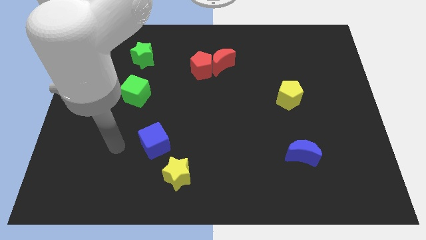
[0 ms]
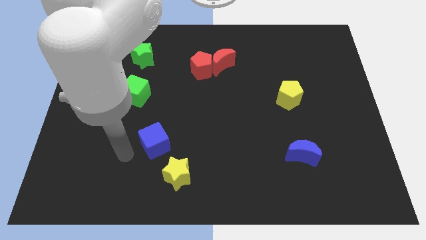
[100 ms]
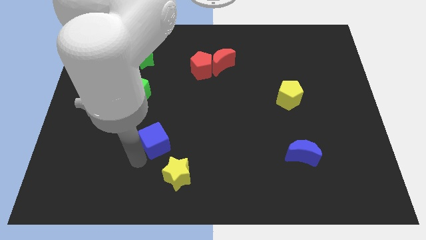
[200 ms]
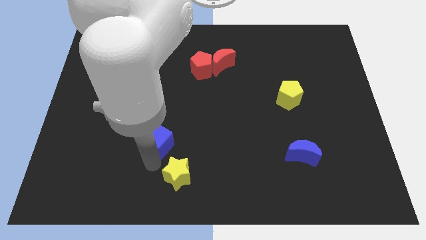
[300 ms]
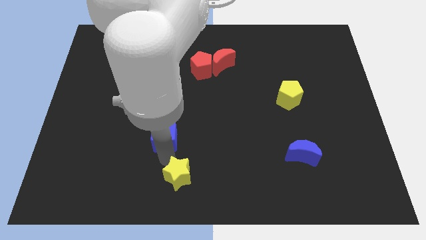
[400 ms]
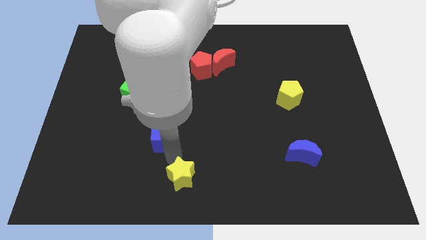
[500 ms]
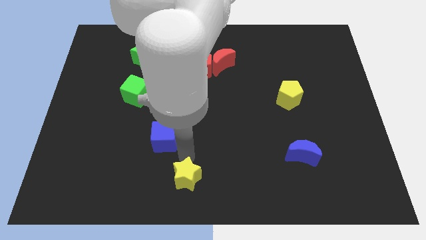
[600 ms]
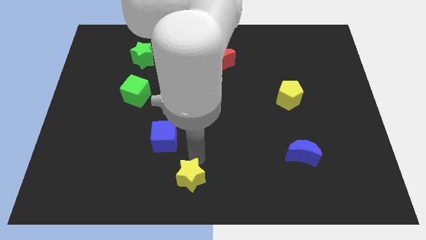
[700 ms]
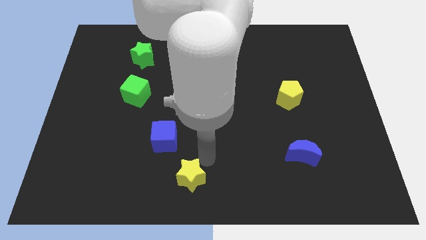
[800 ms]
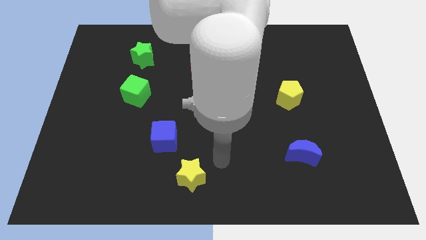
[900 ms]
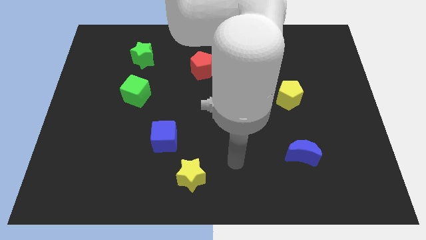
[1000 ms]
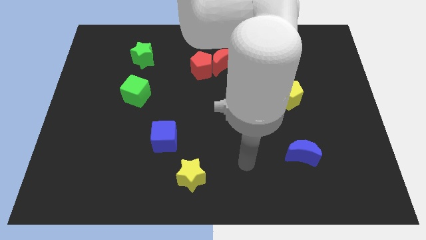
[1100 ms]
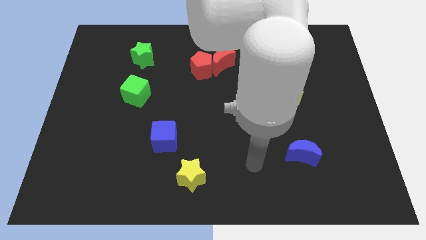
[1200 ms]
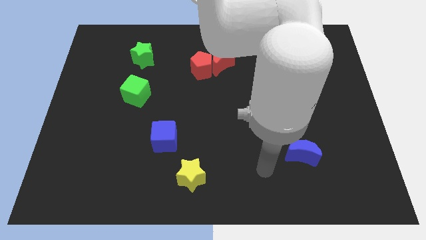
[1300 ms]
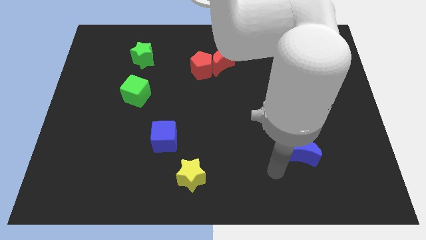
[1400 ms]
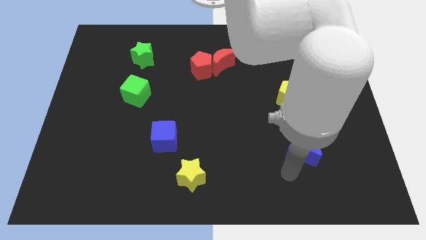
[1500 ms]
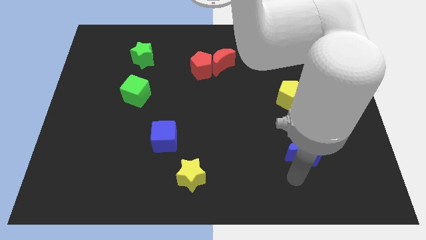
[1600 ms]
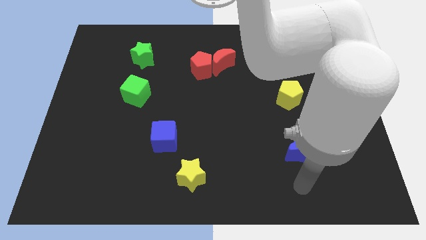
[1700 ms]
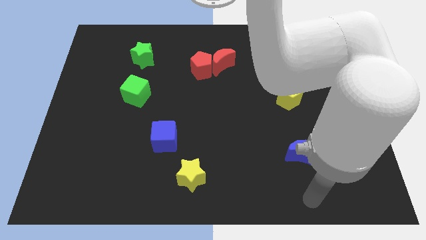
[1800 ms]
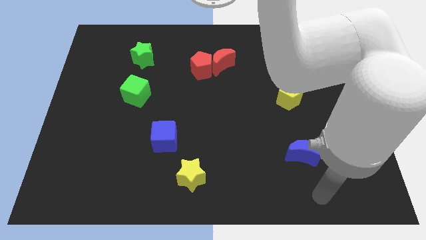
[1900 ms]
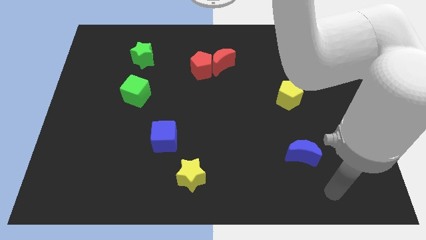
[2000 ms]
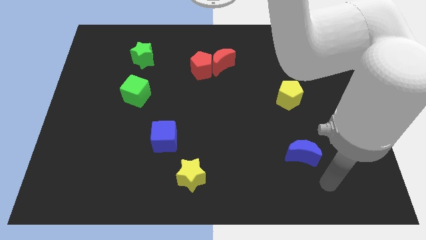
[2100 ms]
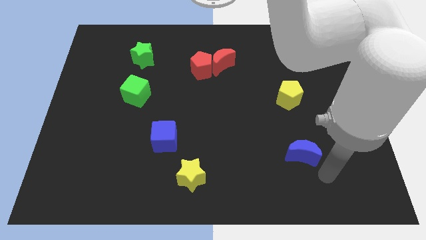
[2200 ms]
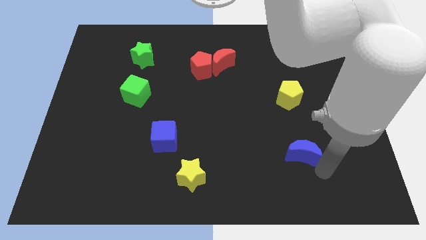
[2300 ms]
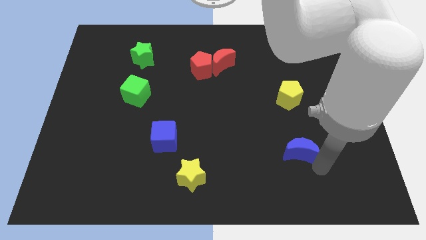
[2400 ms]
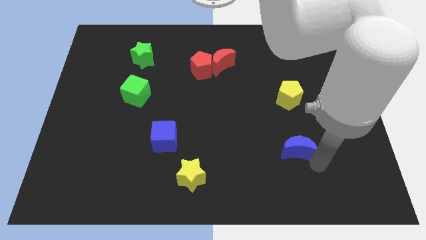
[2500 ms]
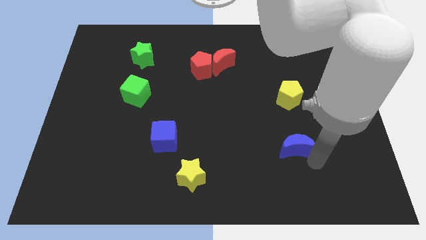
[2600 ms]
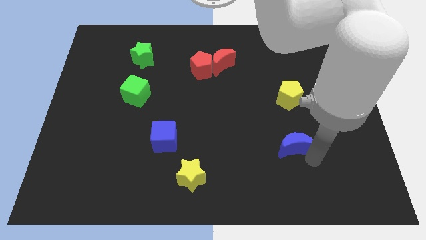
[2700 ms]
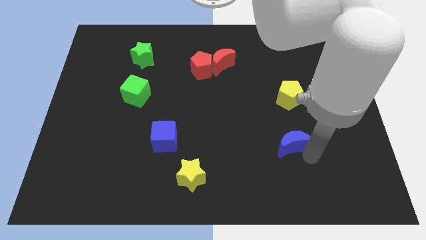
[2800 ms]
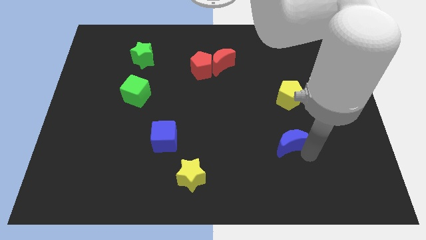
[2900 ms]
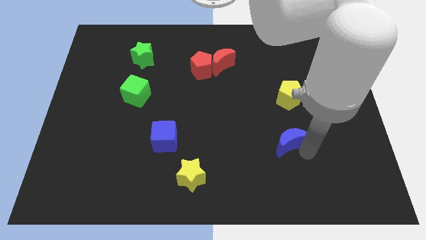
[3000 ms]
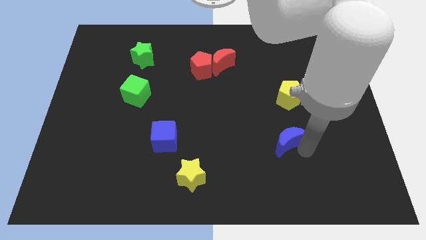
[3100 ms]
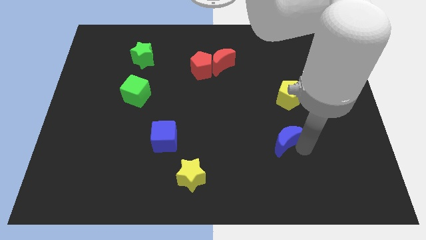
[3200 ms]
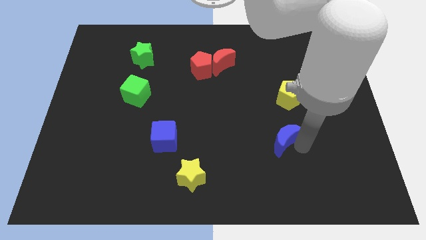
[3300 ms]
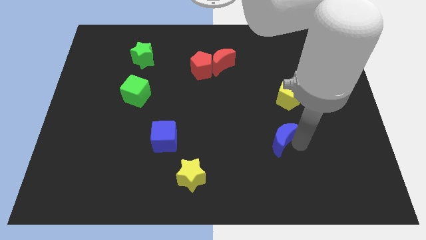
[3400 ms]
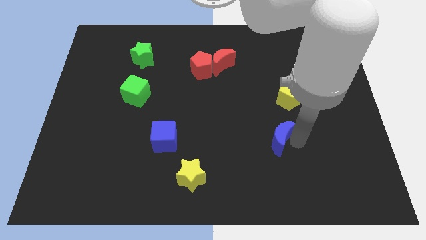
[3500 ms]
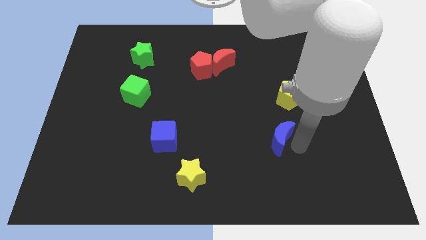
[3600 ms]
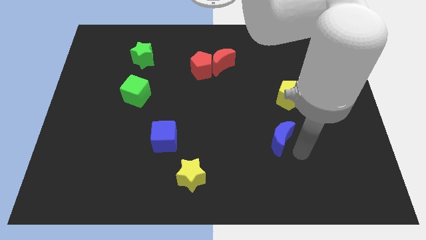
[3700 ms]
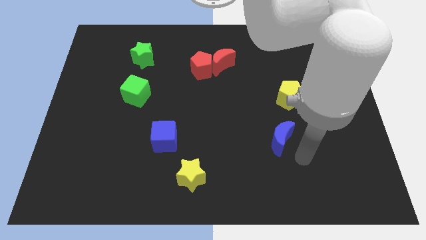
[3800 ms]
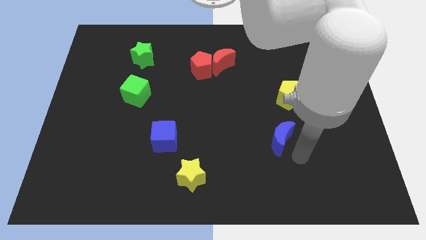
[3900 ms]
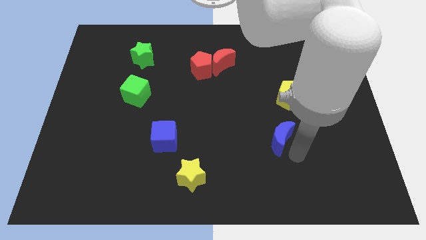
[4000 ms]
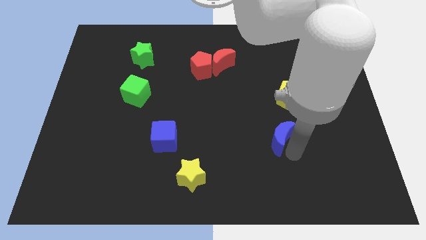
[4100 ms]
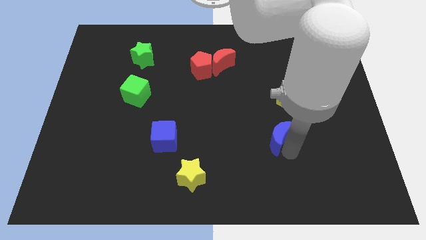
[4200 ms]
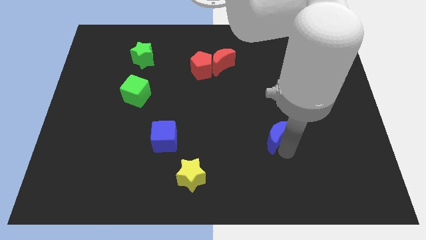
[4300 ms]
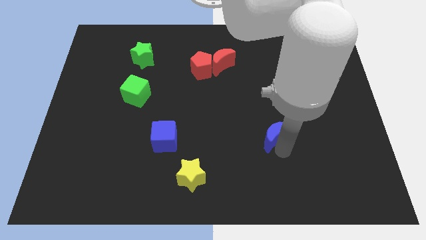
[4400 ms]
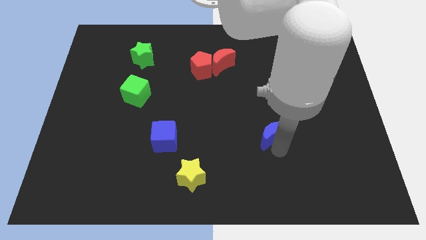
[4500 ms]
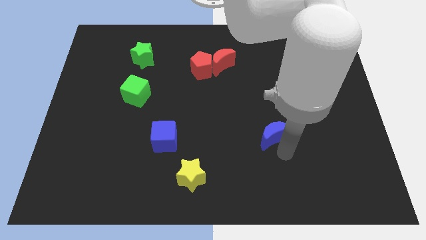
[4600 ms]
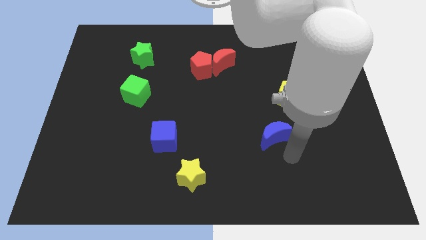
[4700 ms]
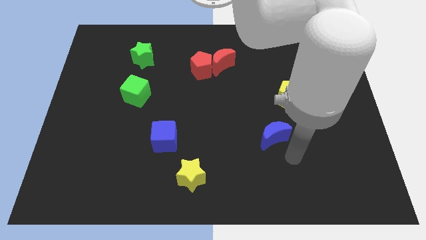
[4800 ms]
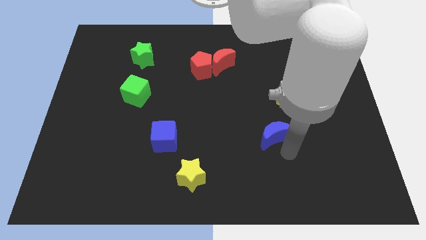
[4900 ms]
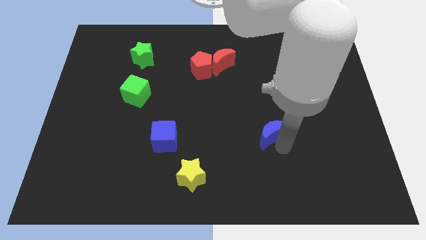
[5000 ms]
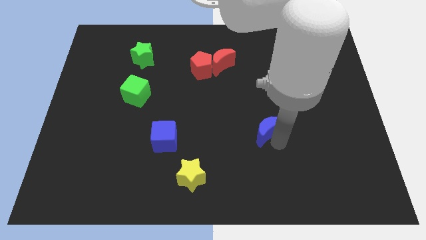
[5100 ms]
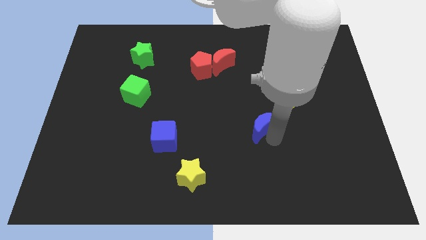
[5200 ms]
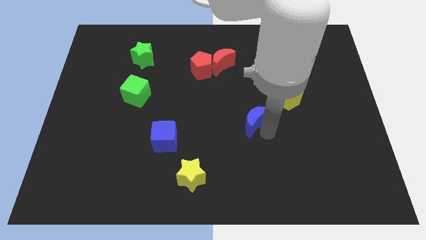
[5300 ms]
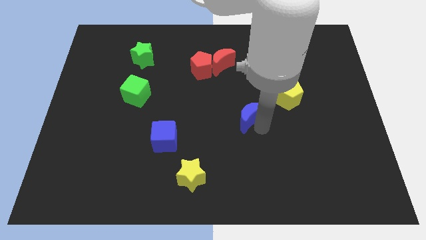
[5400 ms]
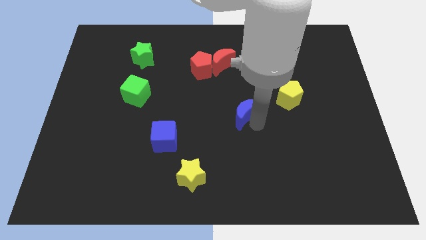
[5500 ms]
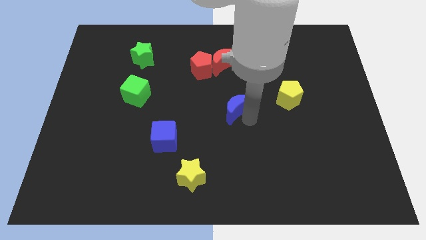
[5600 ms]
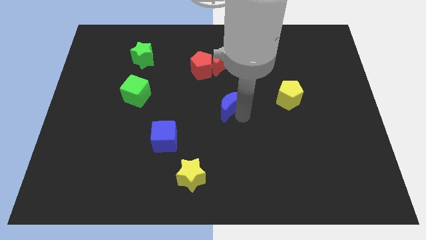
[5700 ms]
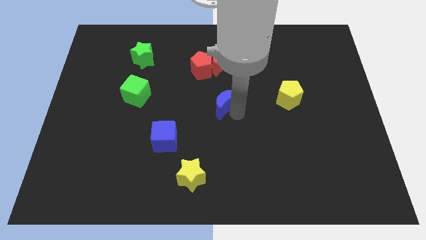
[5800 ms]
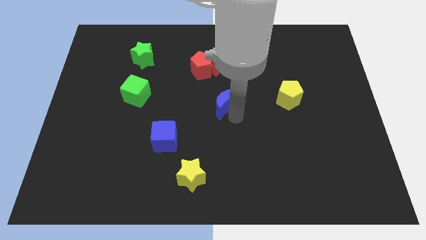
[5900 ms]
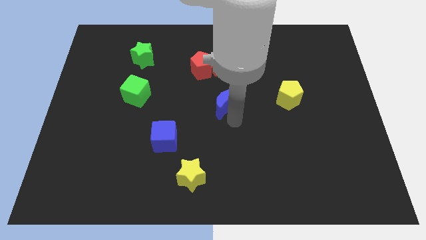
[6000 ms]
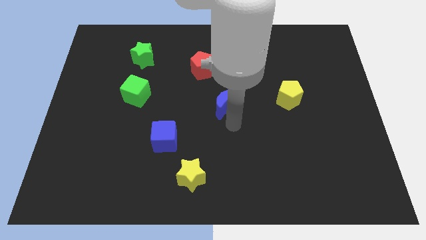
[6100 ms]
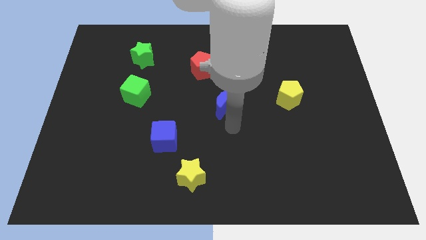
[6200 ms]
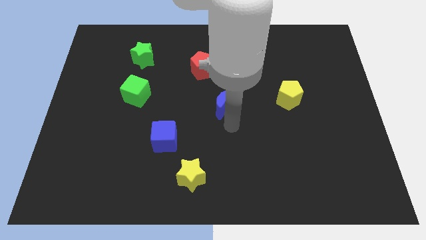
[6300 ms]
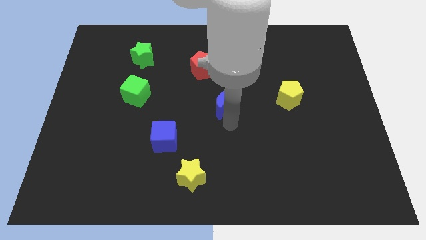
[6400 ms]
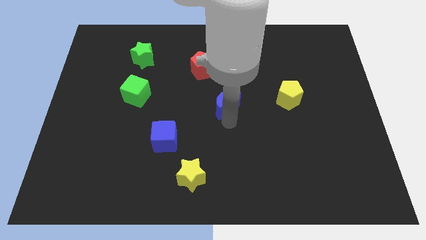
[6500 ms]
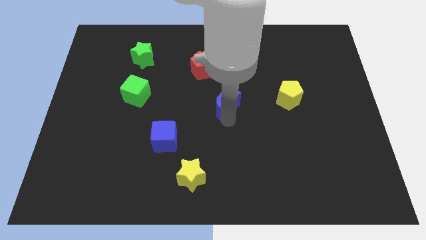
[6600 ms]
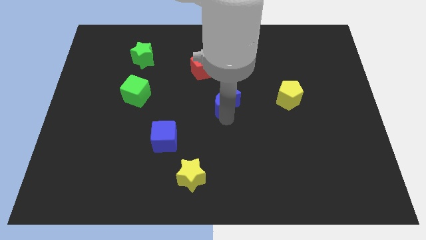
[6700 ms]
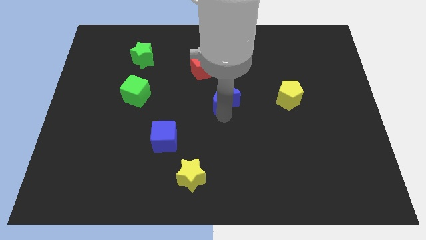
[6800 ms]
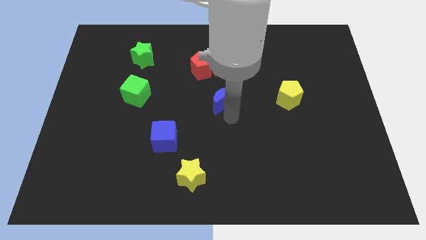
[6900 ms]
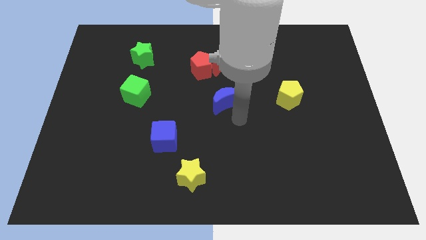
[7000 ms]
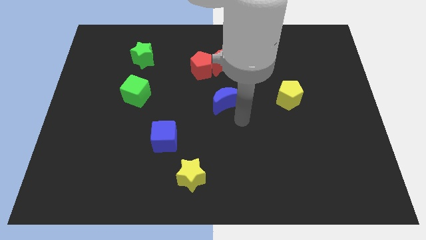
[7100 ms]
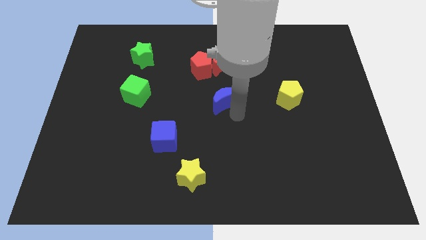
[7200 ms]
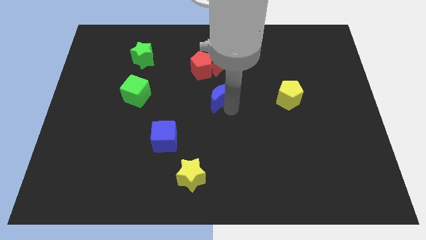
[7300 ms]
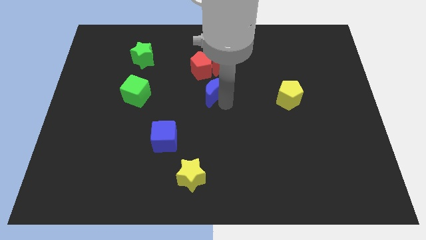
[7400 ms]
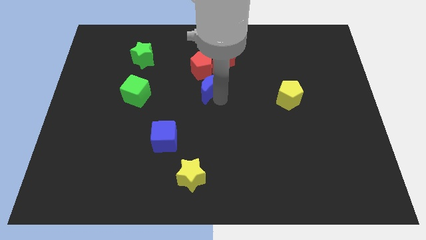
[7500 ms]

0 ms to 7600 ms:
push the blue moon to the bottom left side of the red moon

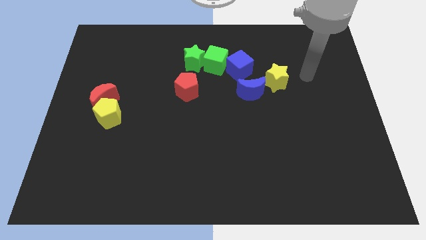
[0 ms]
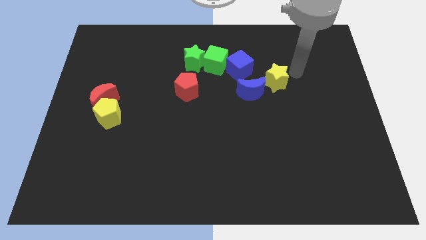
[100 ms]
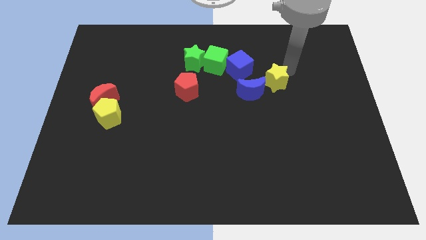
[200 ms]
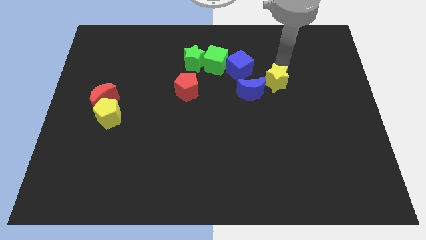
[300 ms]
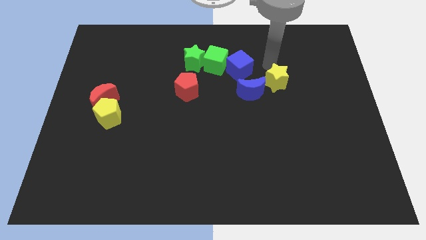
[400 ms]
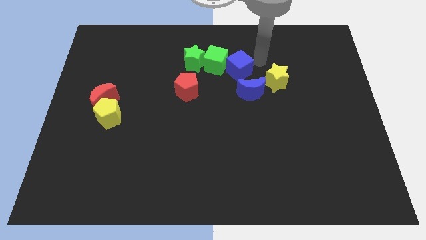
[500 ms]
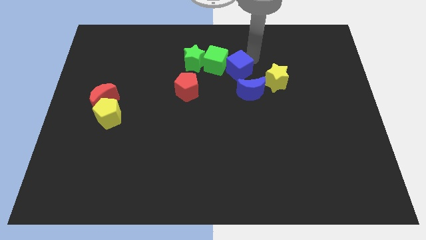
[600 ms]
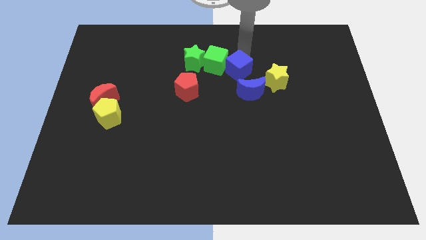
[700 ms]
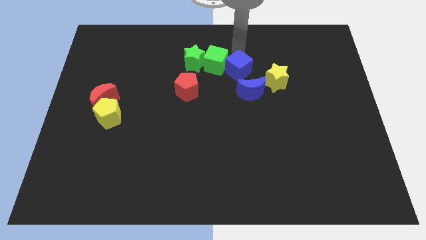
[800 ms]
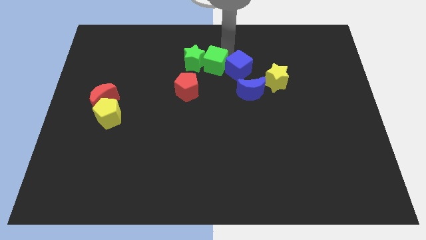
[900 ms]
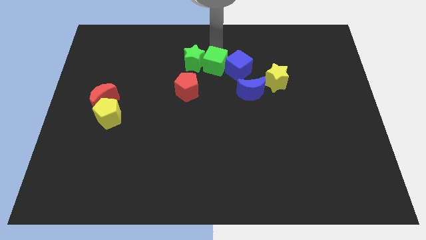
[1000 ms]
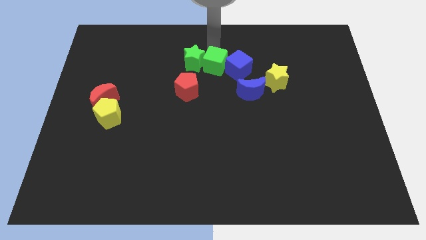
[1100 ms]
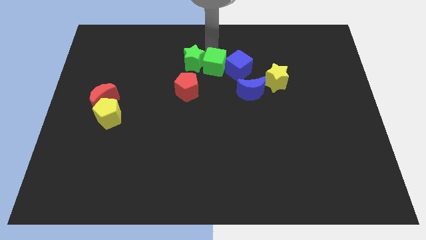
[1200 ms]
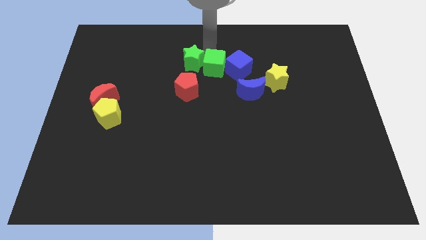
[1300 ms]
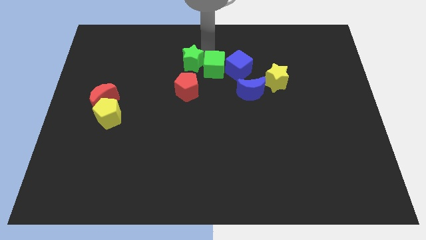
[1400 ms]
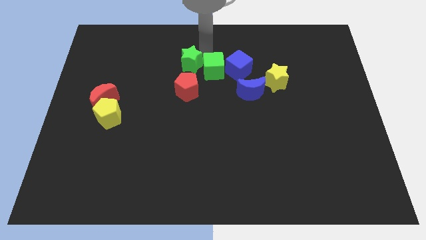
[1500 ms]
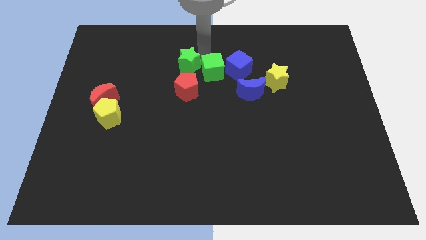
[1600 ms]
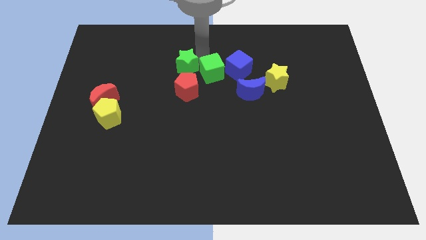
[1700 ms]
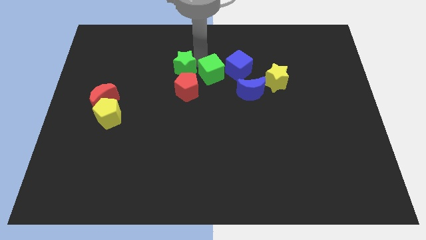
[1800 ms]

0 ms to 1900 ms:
slide the green star diagonally up and to the left of the red pentagon
